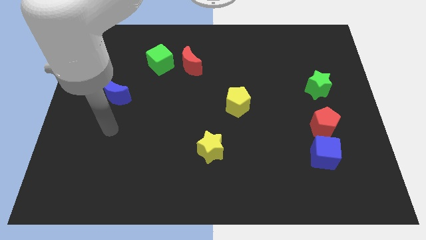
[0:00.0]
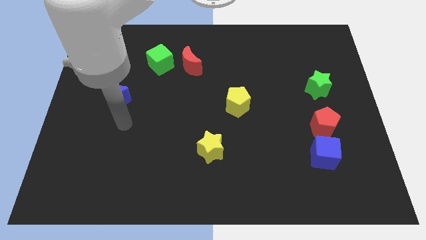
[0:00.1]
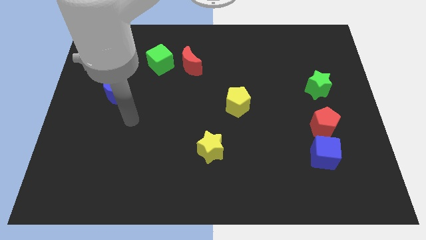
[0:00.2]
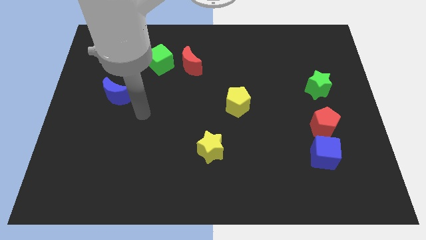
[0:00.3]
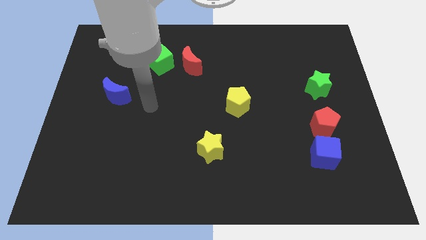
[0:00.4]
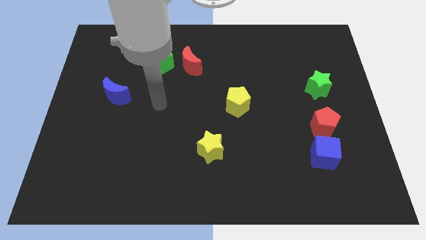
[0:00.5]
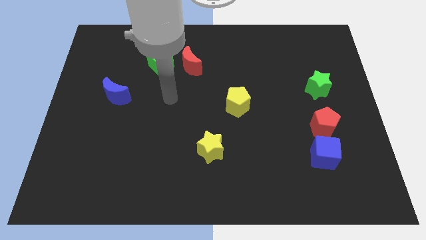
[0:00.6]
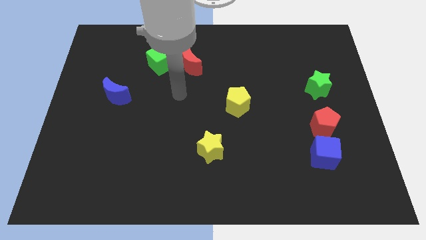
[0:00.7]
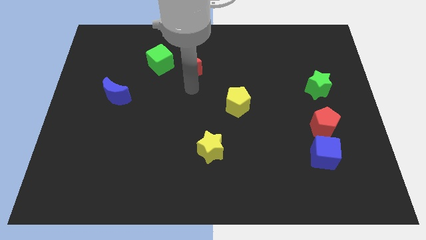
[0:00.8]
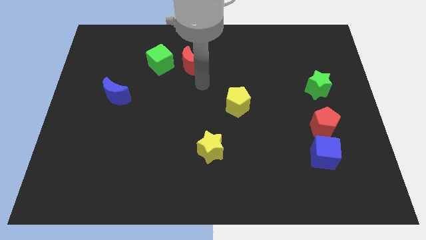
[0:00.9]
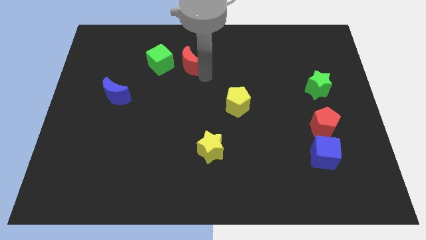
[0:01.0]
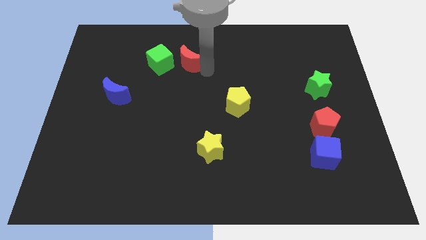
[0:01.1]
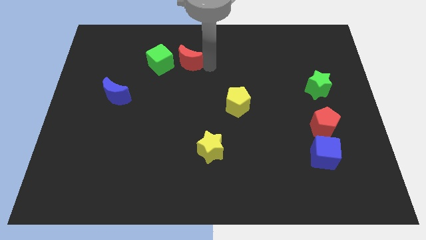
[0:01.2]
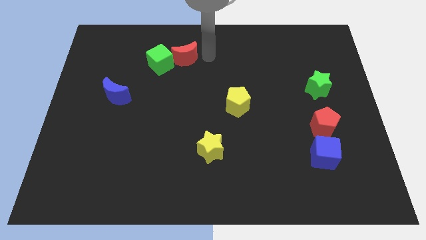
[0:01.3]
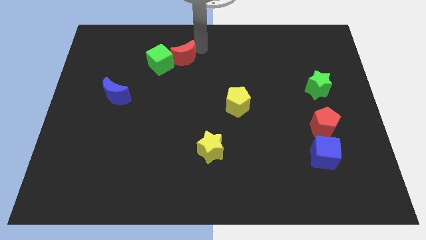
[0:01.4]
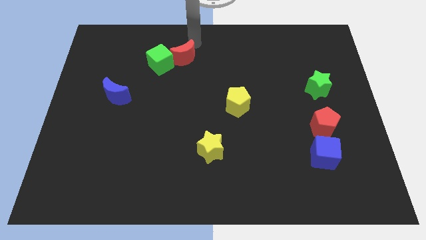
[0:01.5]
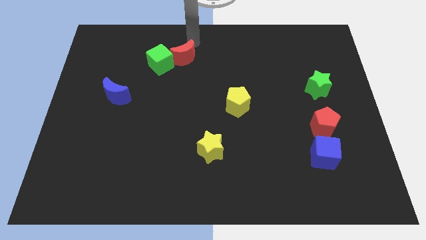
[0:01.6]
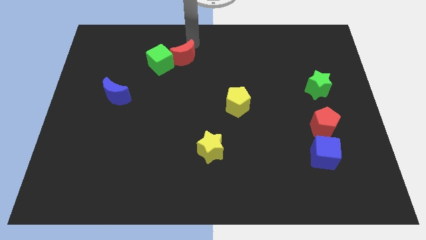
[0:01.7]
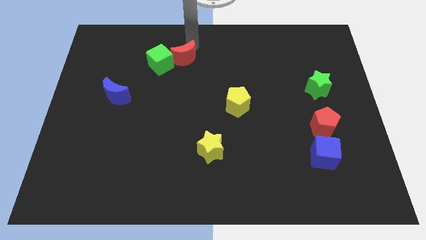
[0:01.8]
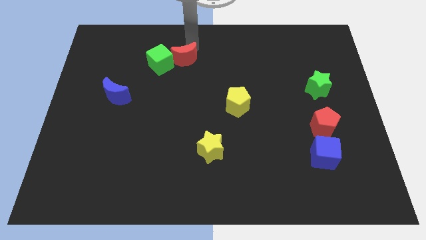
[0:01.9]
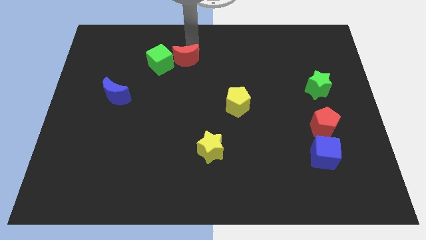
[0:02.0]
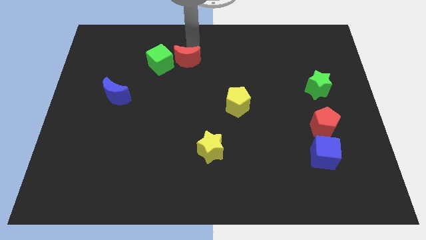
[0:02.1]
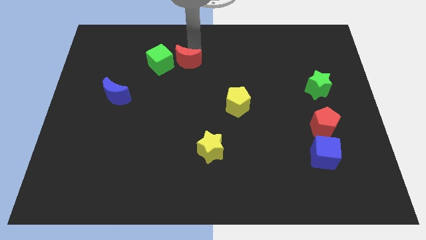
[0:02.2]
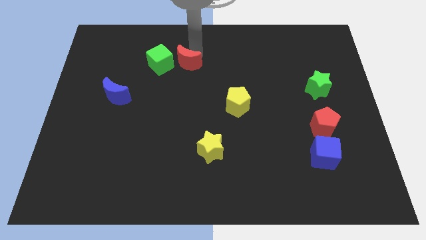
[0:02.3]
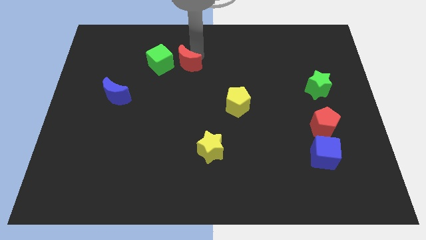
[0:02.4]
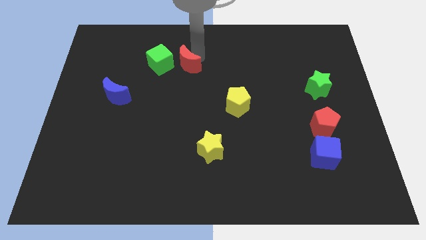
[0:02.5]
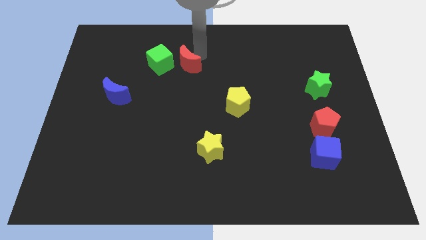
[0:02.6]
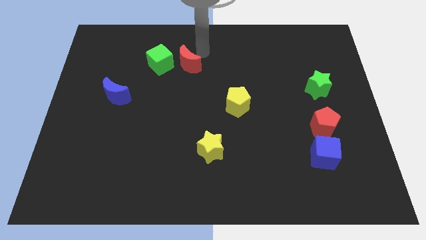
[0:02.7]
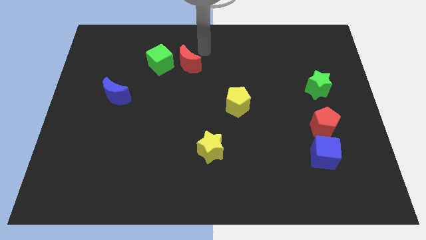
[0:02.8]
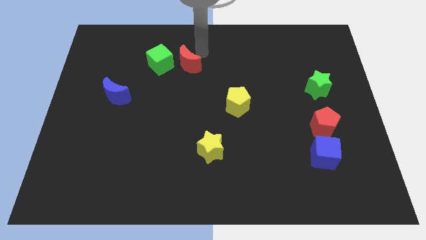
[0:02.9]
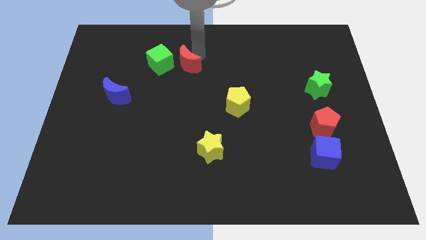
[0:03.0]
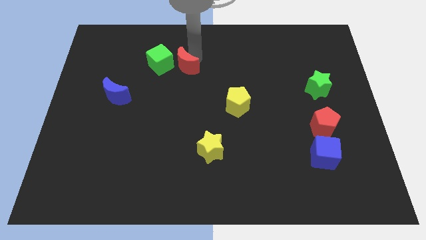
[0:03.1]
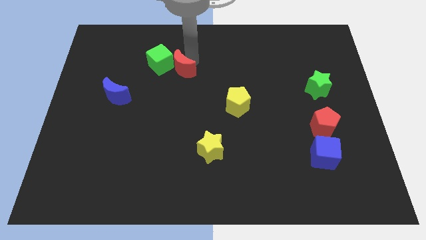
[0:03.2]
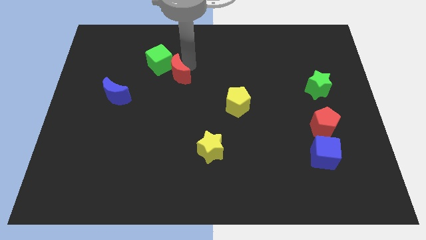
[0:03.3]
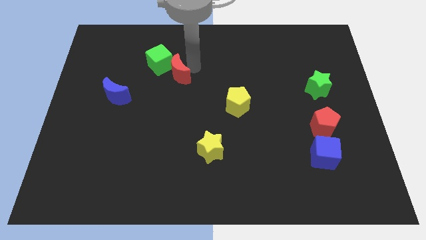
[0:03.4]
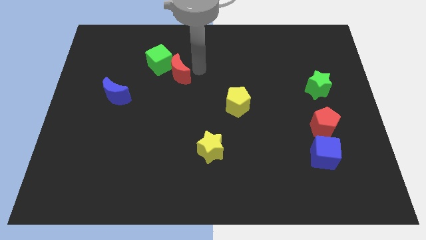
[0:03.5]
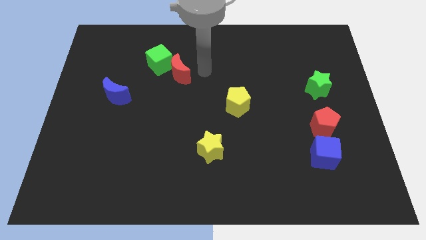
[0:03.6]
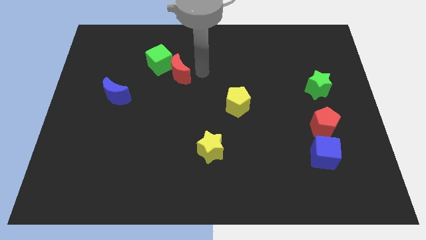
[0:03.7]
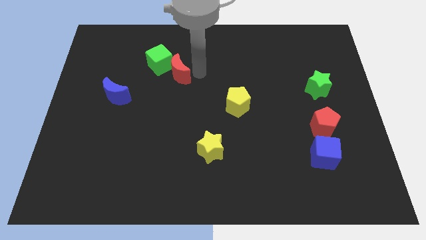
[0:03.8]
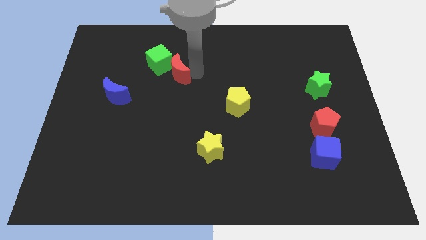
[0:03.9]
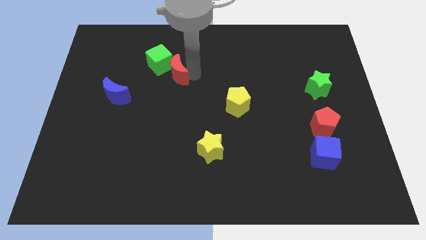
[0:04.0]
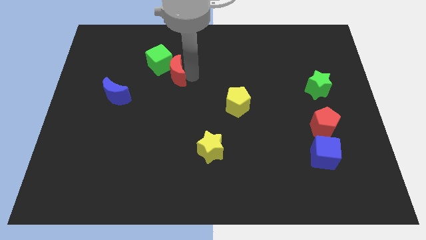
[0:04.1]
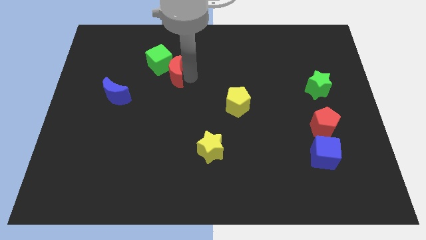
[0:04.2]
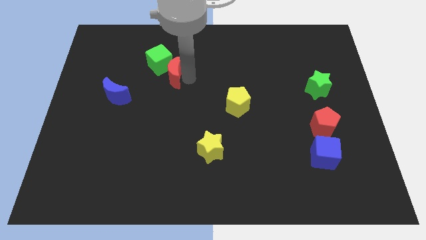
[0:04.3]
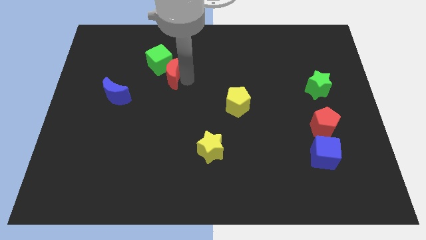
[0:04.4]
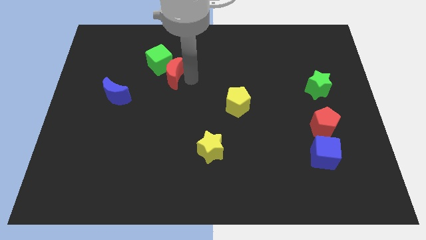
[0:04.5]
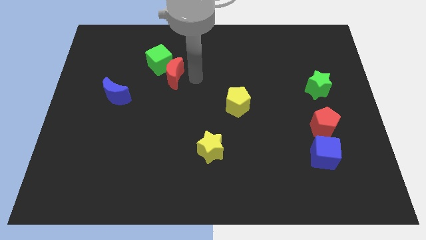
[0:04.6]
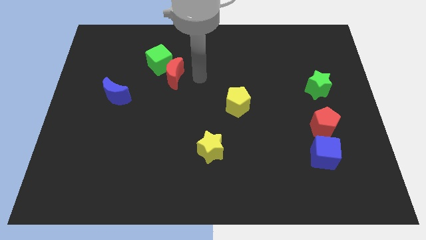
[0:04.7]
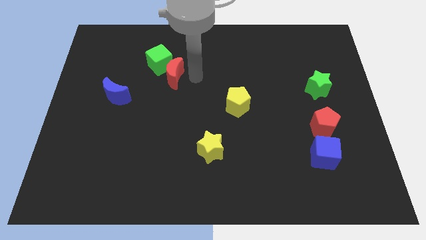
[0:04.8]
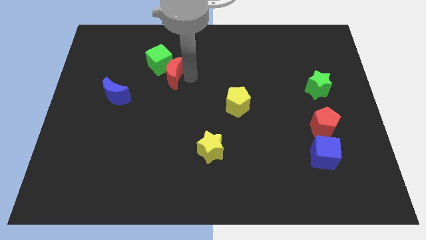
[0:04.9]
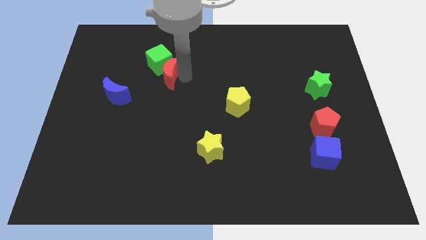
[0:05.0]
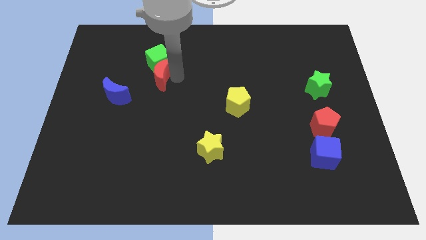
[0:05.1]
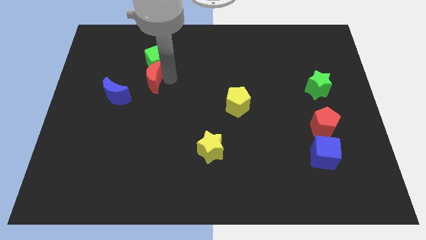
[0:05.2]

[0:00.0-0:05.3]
slightly push the red moon to the left

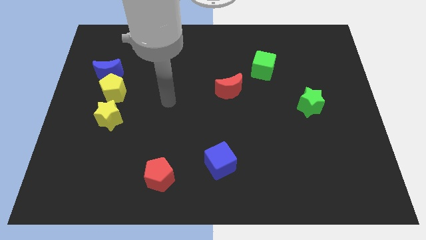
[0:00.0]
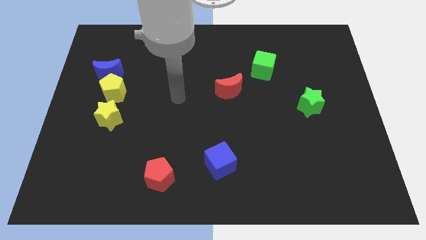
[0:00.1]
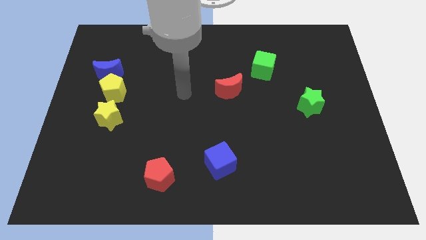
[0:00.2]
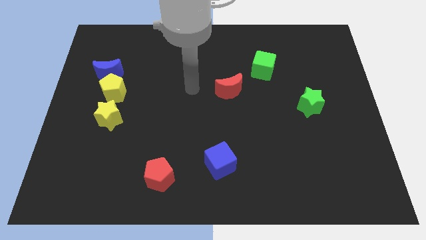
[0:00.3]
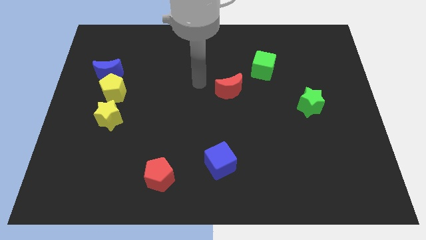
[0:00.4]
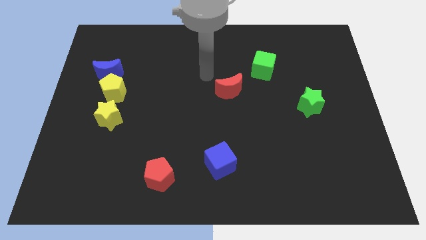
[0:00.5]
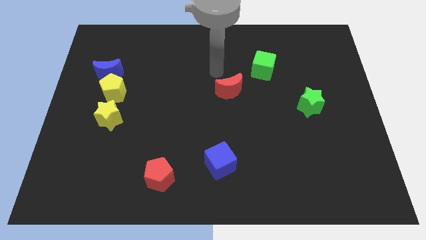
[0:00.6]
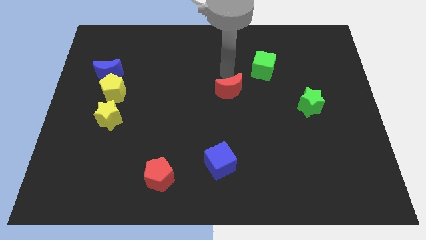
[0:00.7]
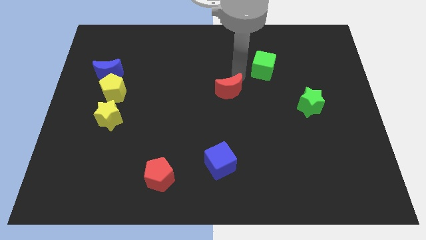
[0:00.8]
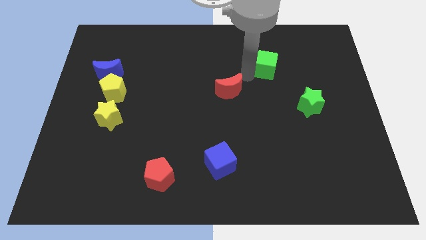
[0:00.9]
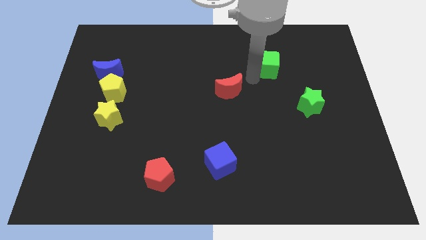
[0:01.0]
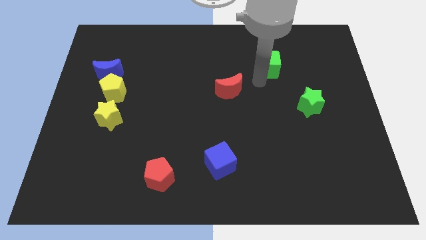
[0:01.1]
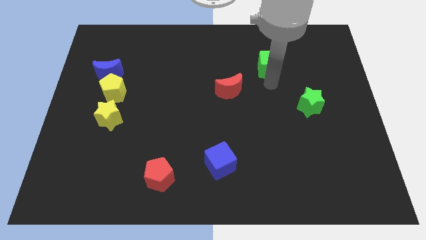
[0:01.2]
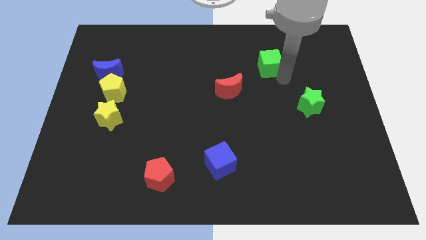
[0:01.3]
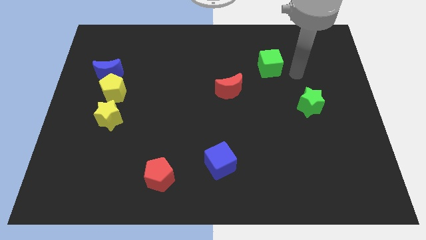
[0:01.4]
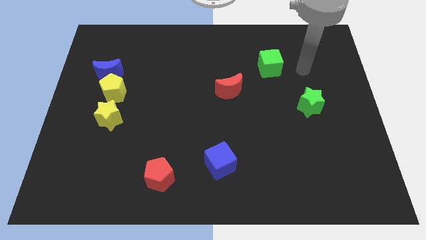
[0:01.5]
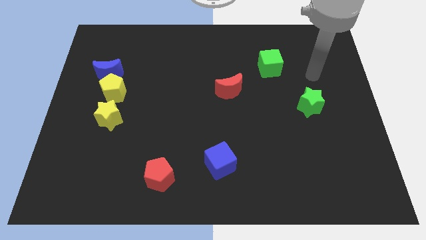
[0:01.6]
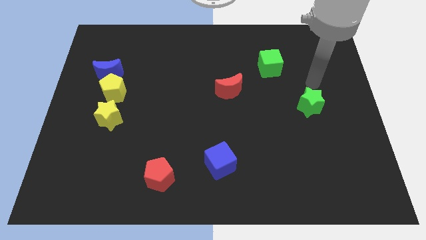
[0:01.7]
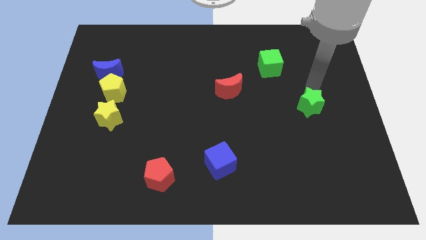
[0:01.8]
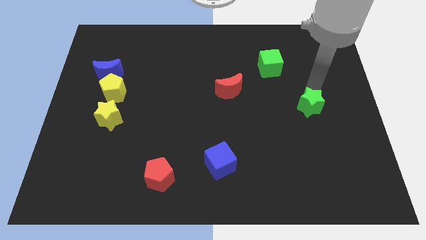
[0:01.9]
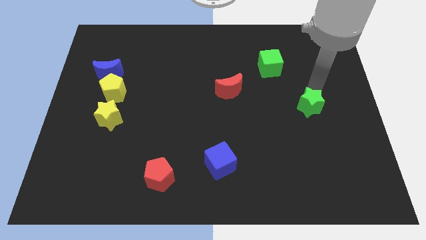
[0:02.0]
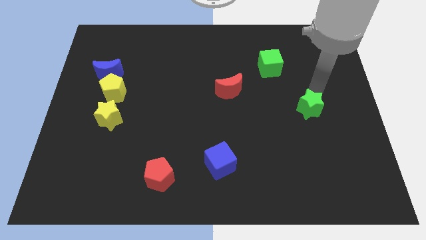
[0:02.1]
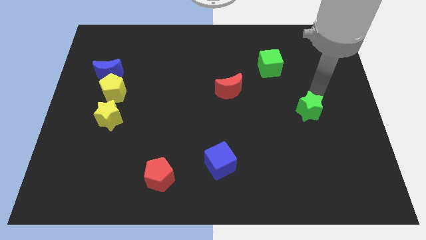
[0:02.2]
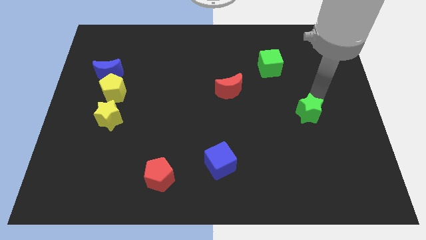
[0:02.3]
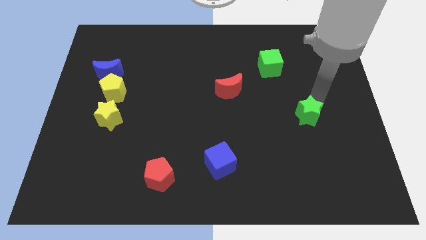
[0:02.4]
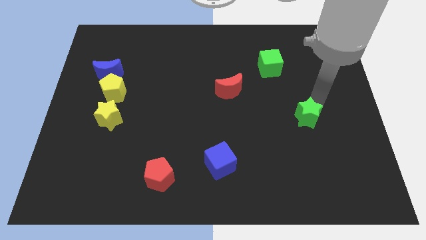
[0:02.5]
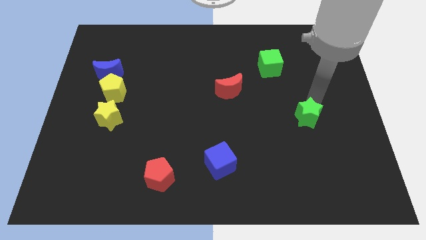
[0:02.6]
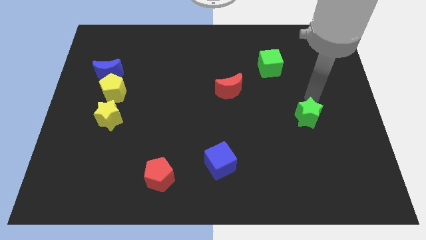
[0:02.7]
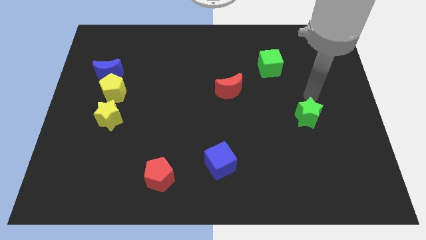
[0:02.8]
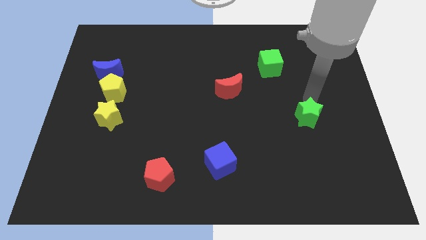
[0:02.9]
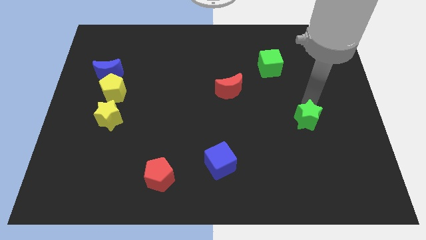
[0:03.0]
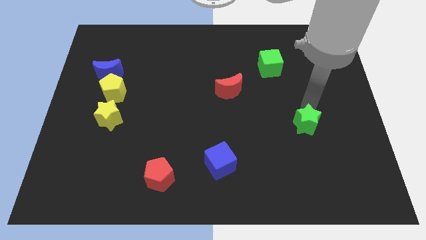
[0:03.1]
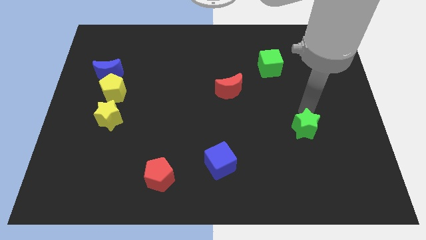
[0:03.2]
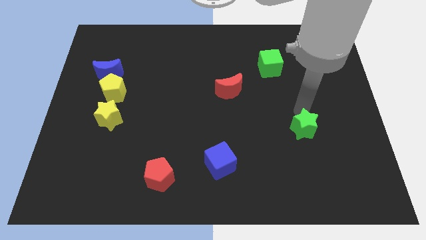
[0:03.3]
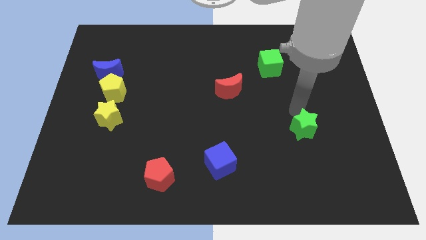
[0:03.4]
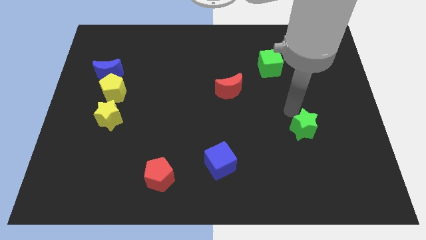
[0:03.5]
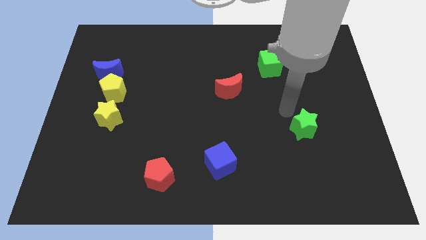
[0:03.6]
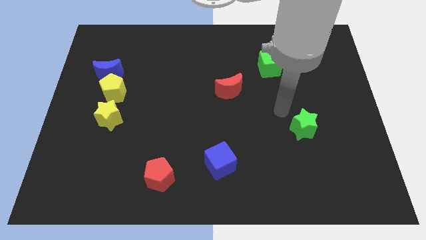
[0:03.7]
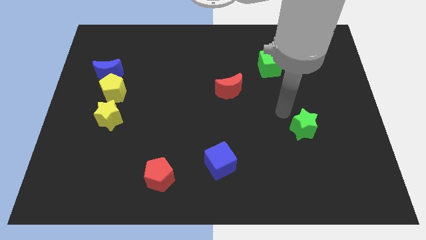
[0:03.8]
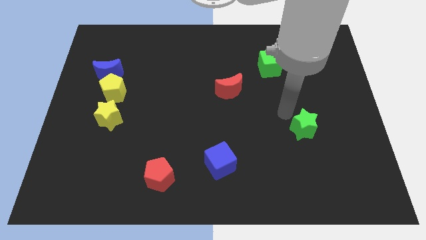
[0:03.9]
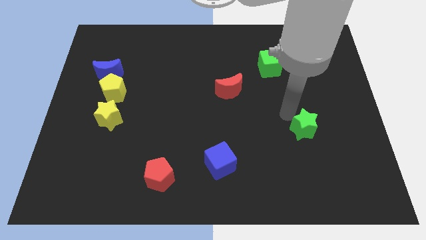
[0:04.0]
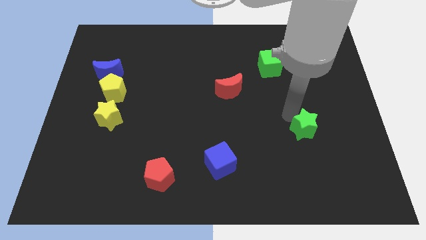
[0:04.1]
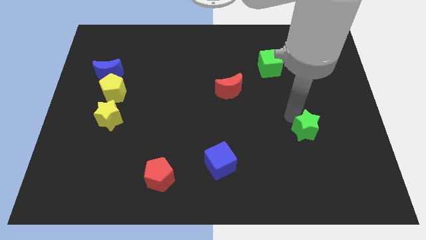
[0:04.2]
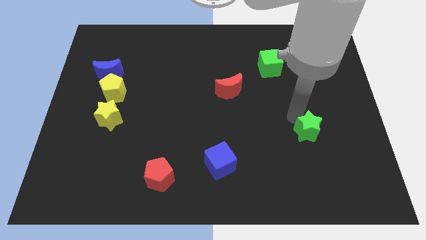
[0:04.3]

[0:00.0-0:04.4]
slide the green star down somewhat
